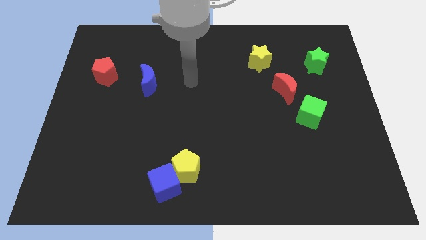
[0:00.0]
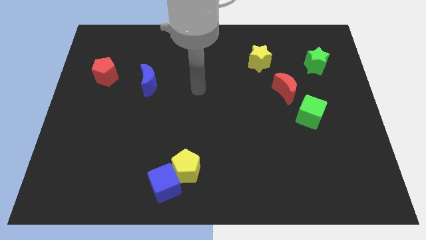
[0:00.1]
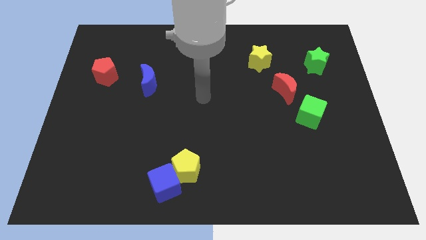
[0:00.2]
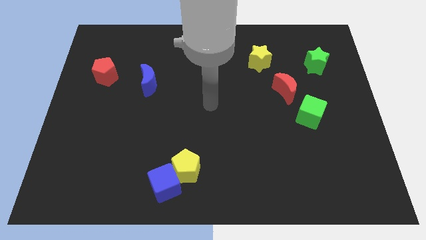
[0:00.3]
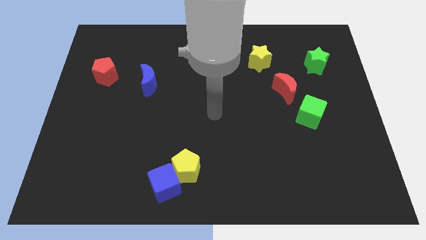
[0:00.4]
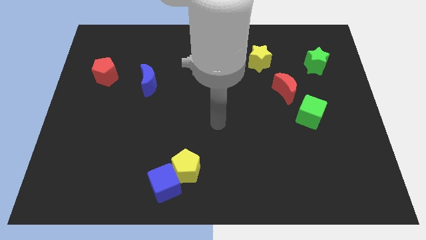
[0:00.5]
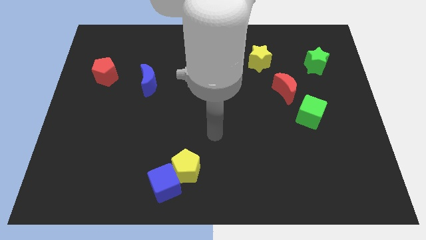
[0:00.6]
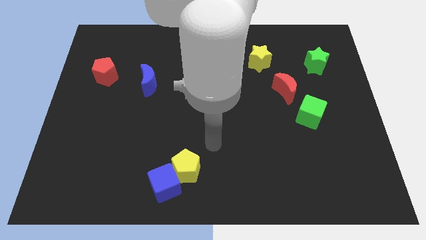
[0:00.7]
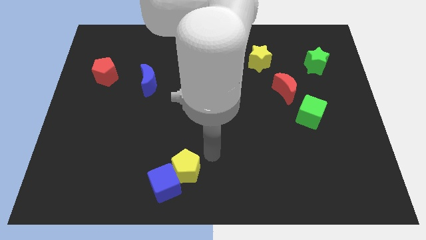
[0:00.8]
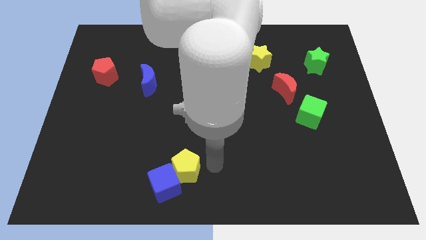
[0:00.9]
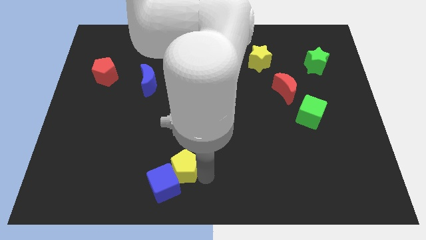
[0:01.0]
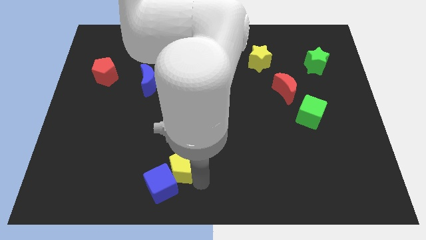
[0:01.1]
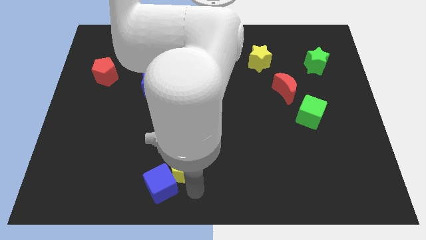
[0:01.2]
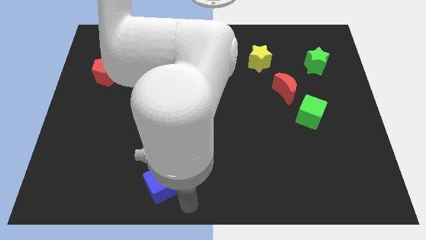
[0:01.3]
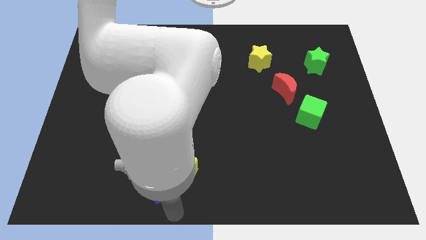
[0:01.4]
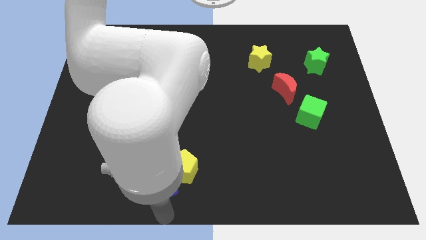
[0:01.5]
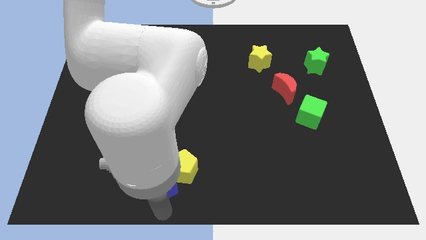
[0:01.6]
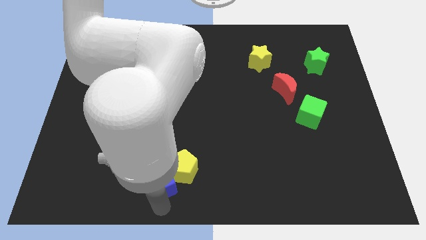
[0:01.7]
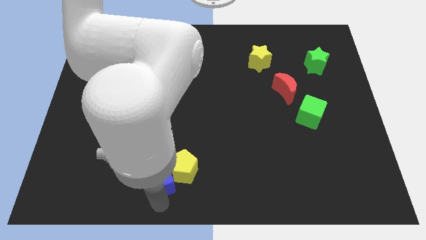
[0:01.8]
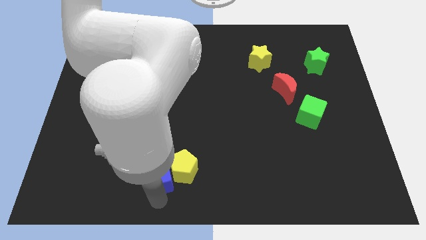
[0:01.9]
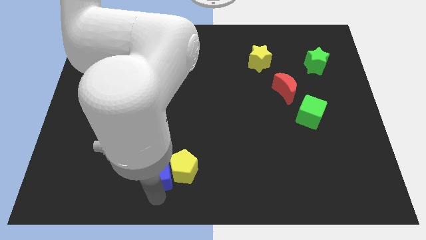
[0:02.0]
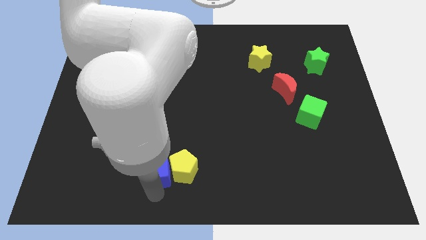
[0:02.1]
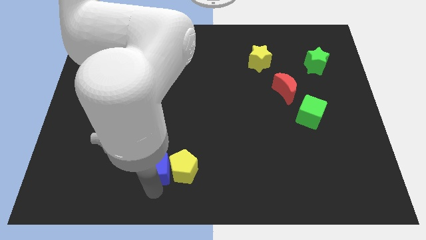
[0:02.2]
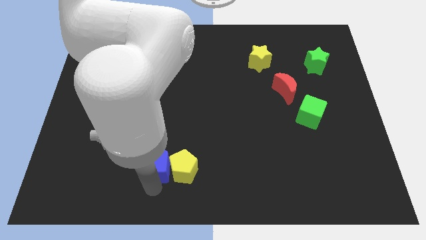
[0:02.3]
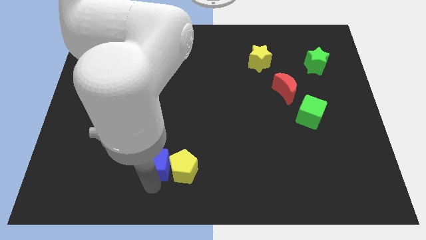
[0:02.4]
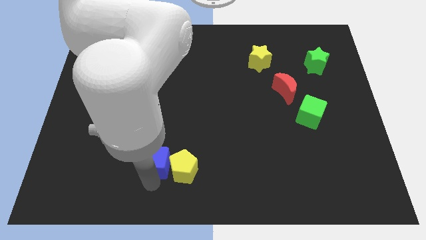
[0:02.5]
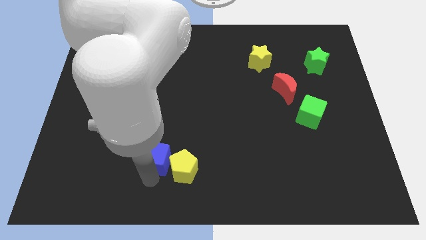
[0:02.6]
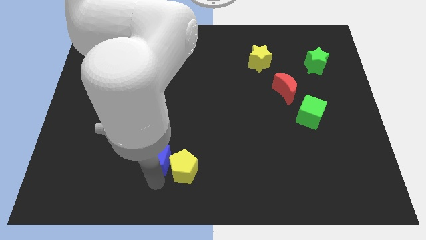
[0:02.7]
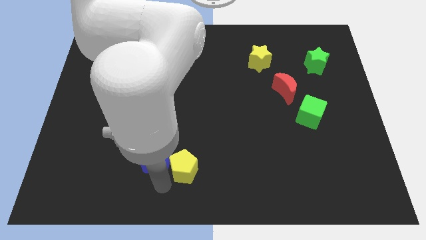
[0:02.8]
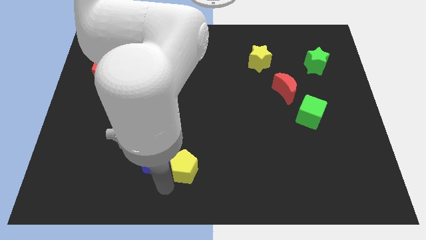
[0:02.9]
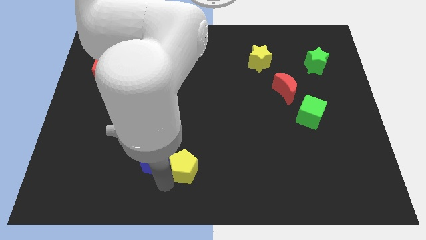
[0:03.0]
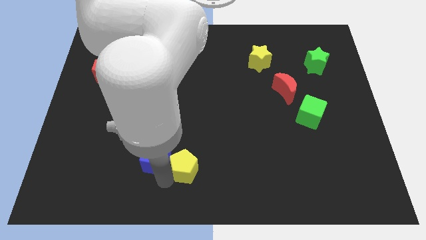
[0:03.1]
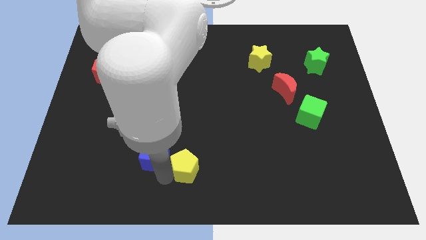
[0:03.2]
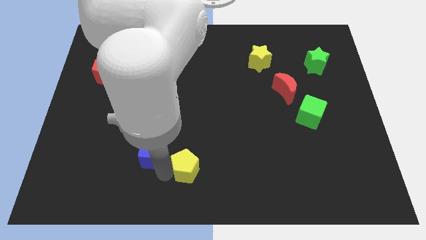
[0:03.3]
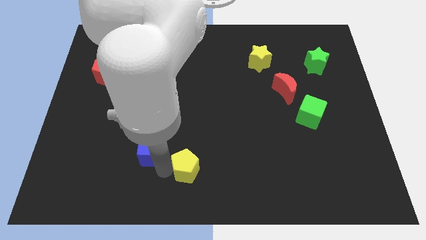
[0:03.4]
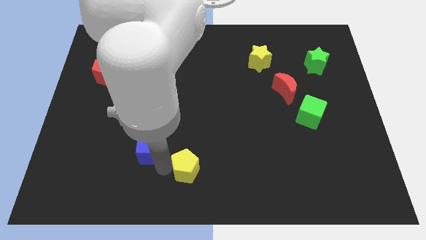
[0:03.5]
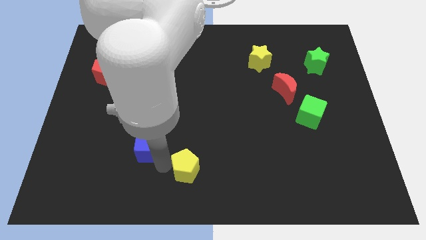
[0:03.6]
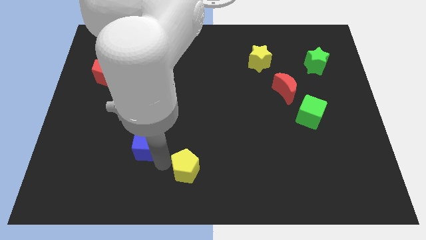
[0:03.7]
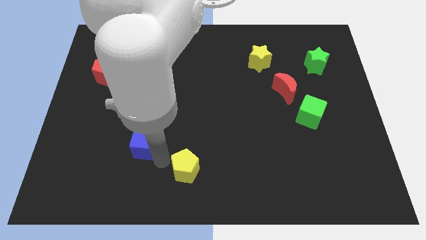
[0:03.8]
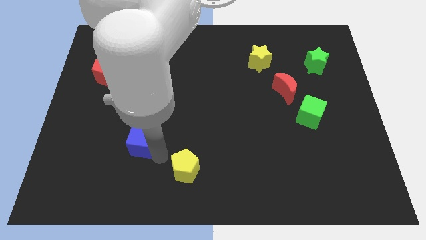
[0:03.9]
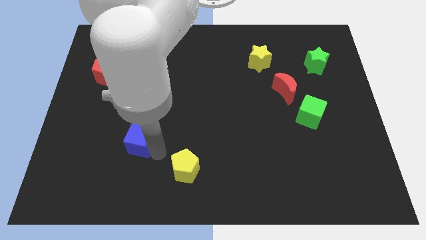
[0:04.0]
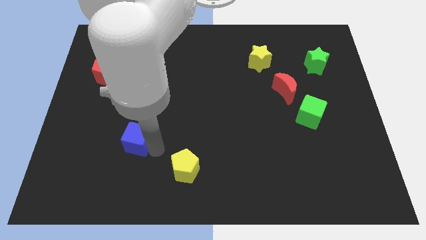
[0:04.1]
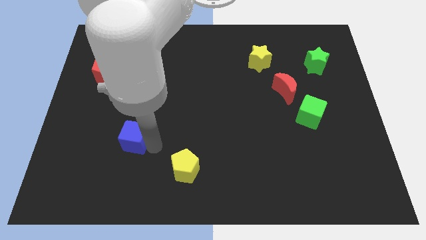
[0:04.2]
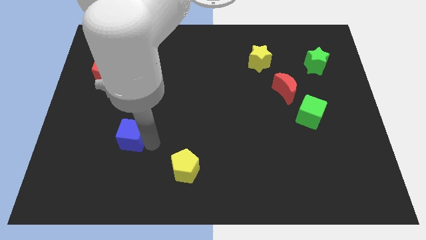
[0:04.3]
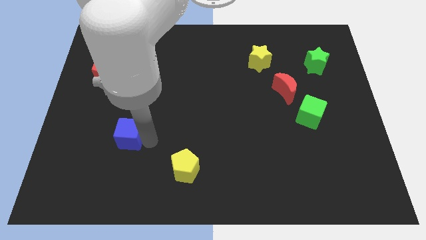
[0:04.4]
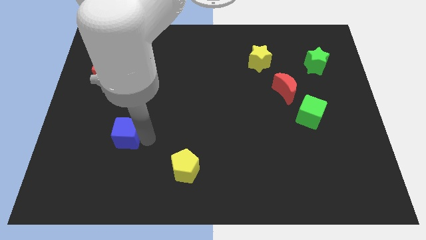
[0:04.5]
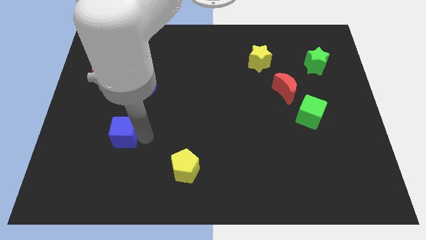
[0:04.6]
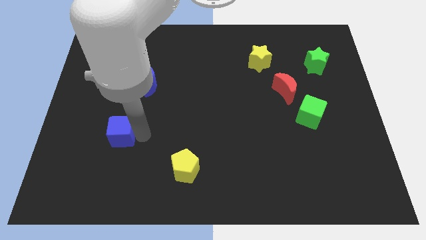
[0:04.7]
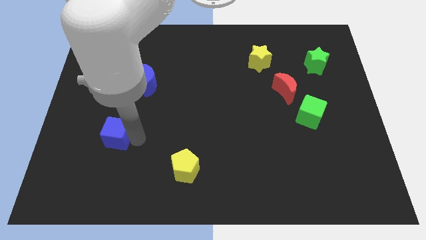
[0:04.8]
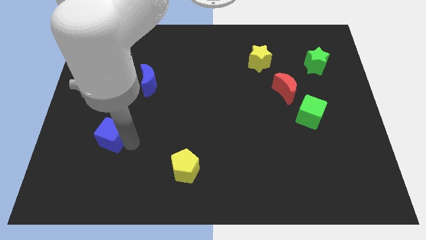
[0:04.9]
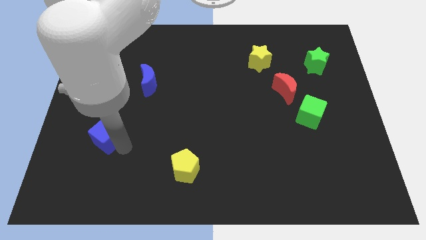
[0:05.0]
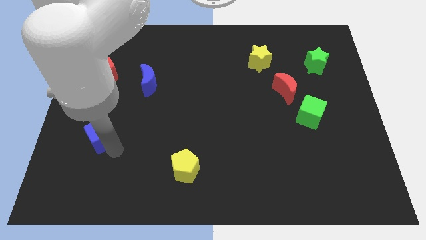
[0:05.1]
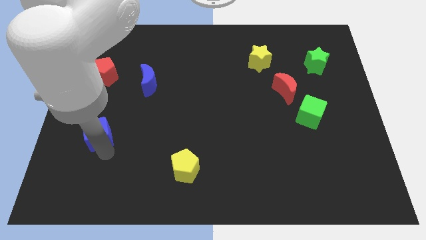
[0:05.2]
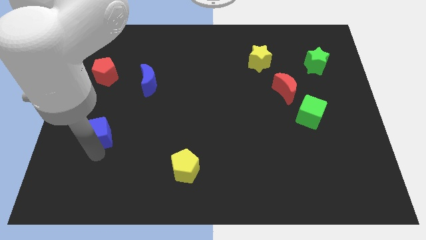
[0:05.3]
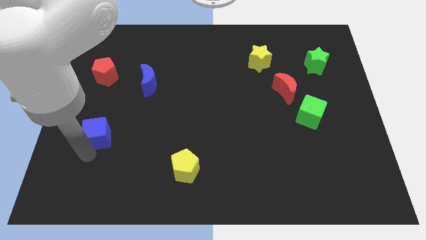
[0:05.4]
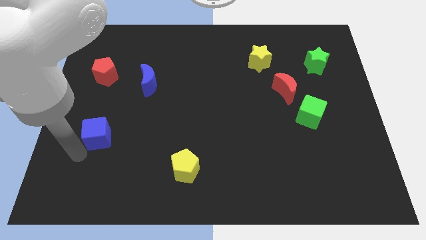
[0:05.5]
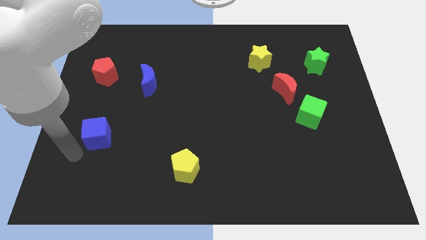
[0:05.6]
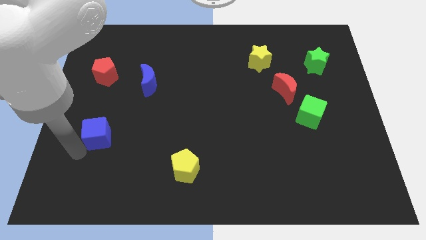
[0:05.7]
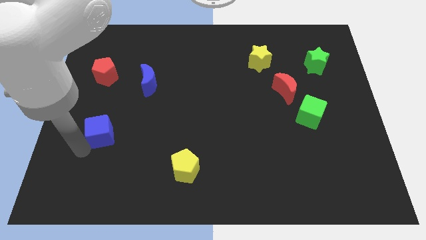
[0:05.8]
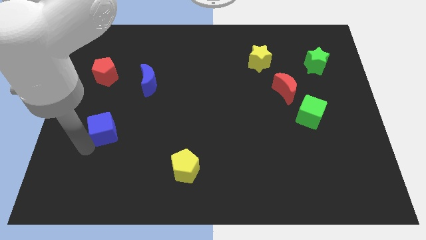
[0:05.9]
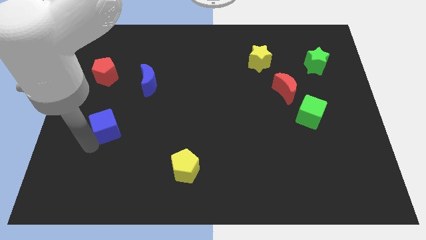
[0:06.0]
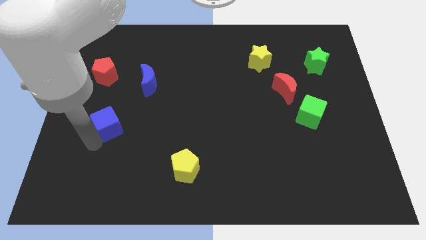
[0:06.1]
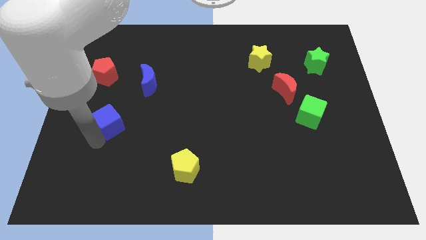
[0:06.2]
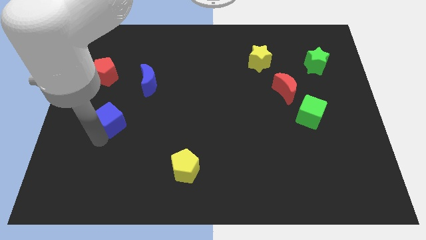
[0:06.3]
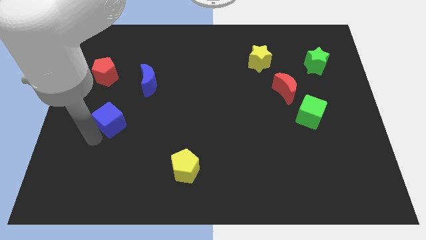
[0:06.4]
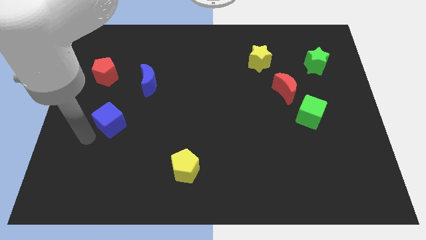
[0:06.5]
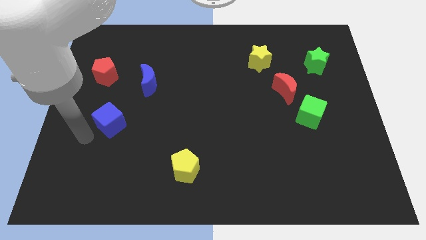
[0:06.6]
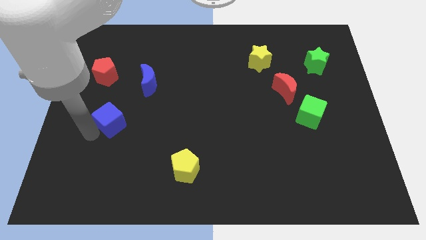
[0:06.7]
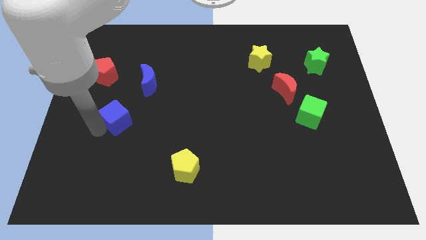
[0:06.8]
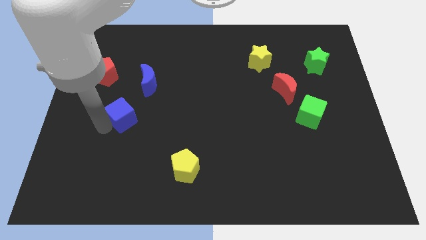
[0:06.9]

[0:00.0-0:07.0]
push the blue cube to the bottom left side of the blue moon
